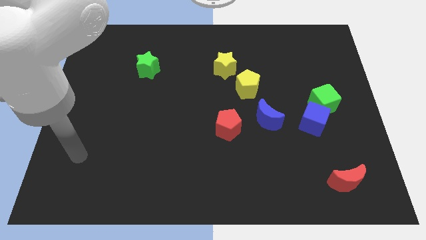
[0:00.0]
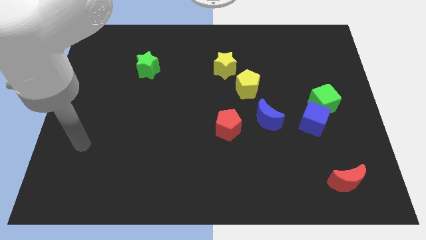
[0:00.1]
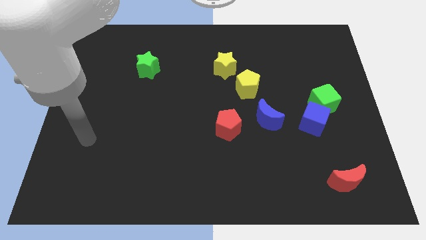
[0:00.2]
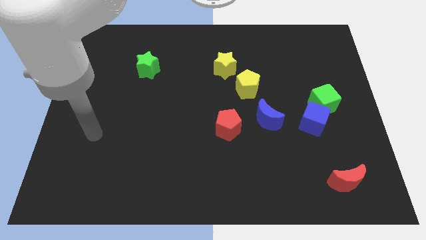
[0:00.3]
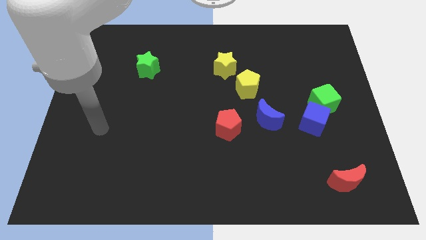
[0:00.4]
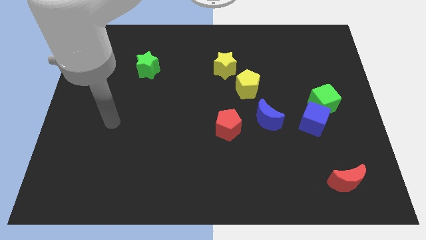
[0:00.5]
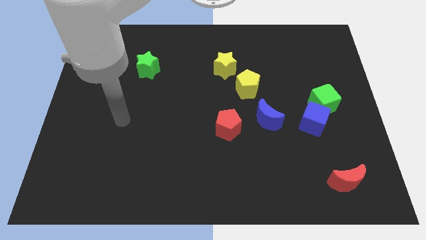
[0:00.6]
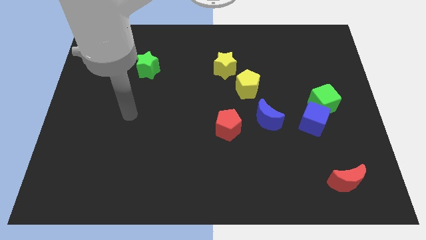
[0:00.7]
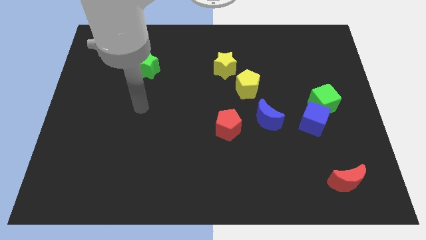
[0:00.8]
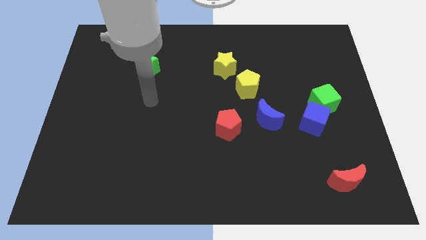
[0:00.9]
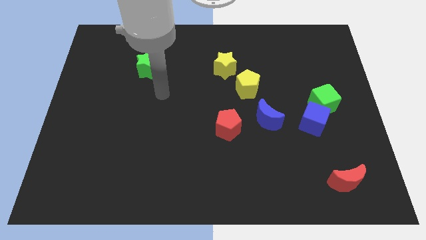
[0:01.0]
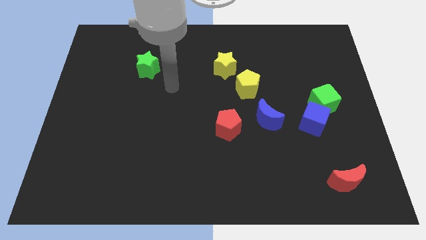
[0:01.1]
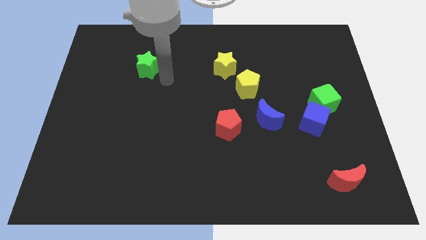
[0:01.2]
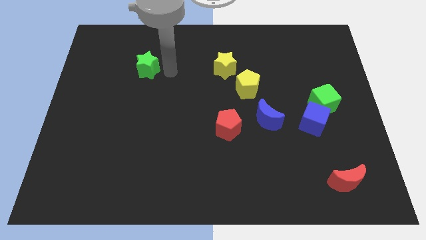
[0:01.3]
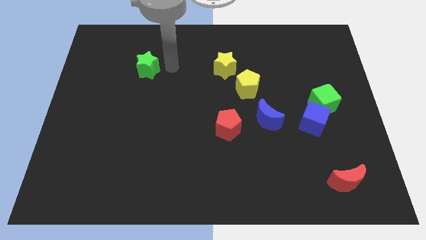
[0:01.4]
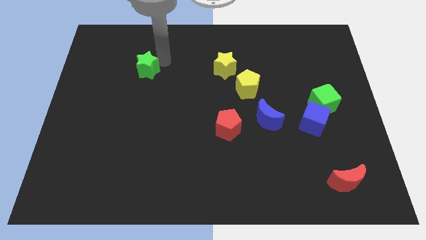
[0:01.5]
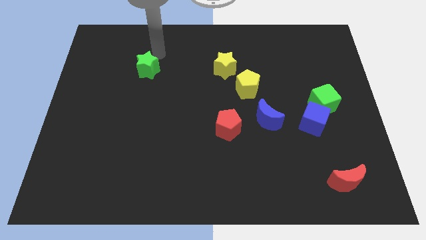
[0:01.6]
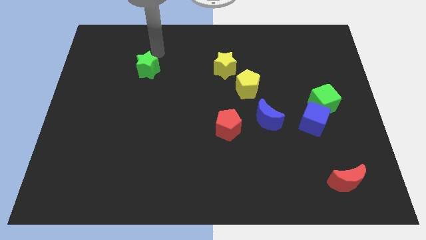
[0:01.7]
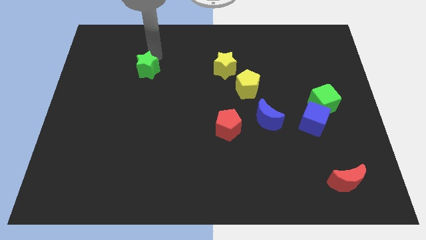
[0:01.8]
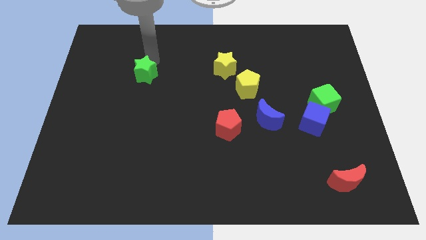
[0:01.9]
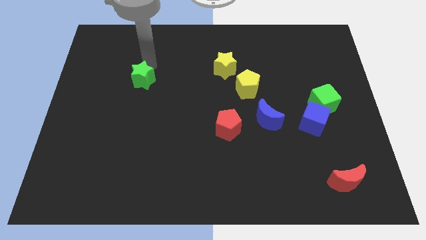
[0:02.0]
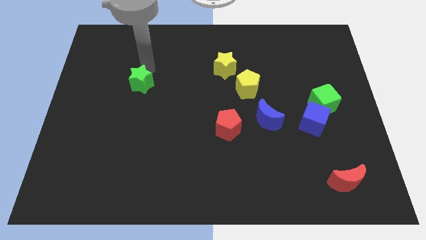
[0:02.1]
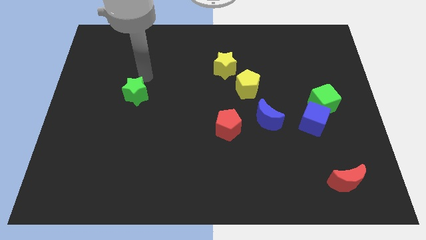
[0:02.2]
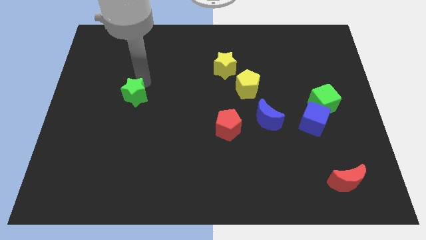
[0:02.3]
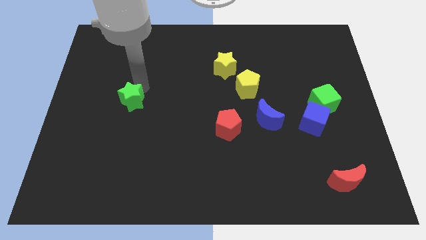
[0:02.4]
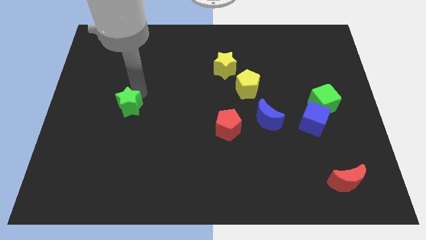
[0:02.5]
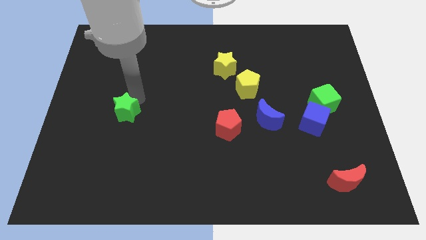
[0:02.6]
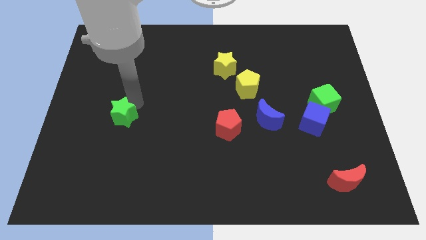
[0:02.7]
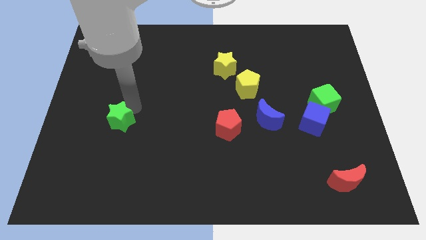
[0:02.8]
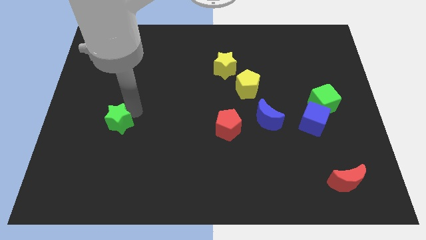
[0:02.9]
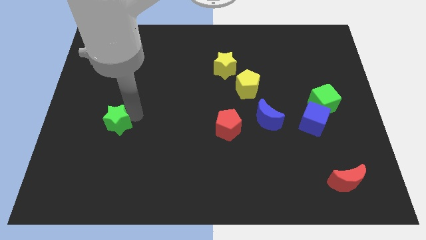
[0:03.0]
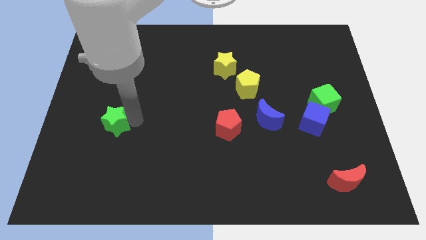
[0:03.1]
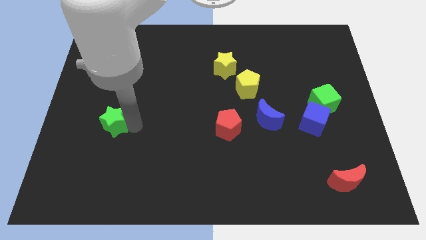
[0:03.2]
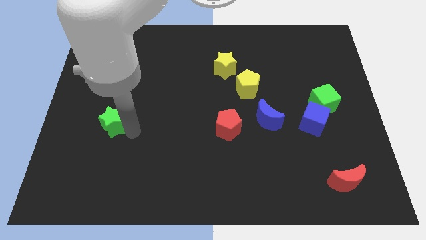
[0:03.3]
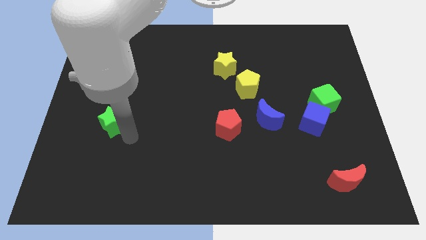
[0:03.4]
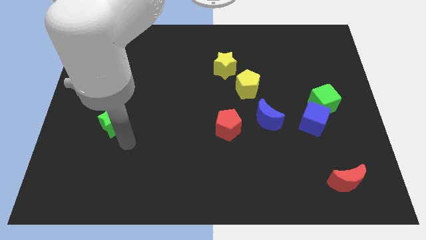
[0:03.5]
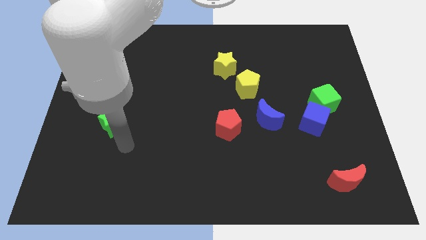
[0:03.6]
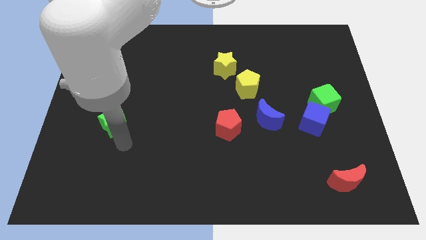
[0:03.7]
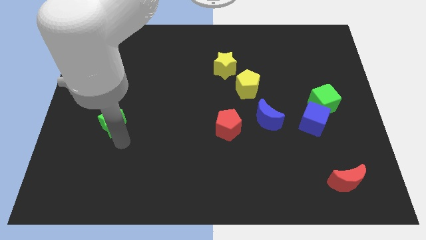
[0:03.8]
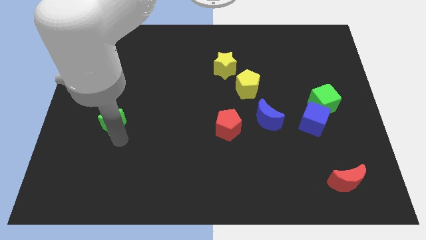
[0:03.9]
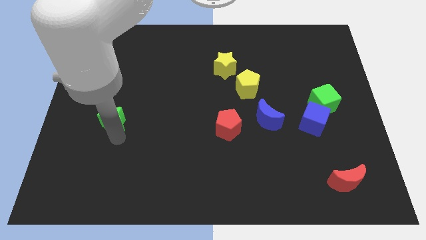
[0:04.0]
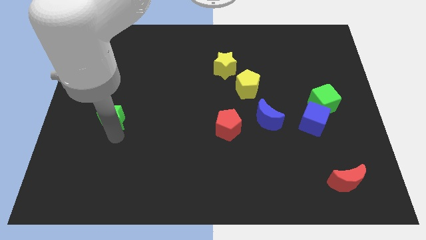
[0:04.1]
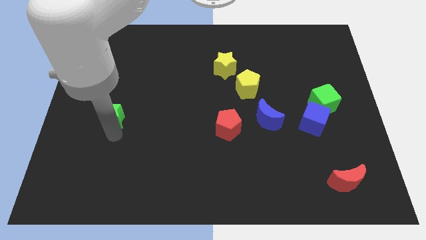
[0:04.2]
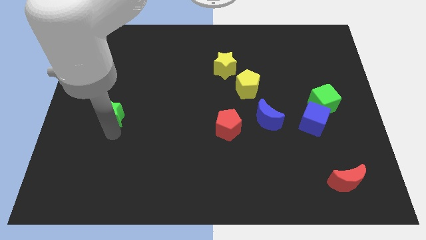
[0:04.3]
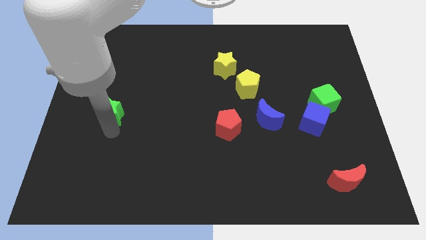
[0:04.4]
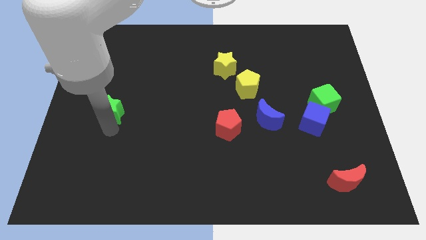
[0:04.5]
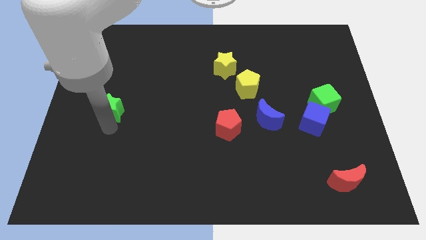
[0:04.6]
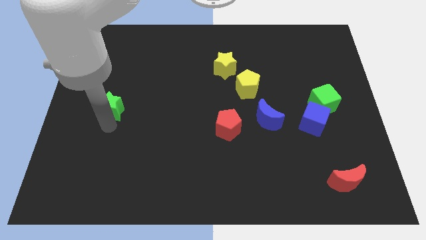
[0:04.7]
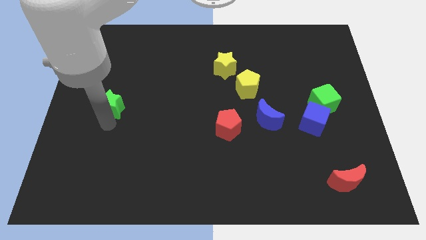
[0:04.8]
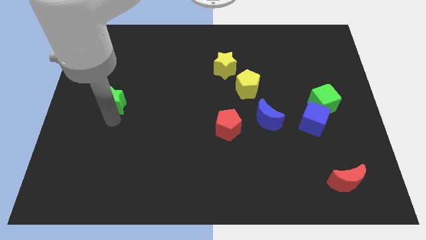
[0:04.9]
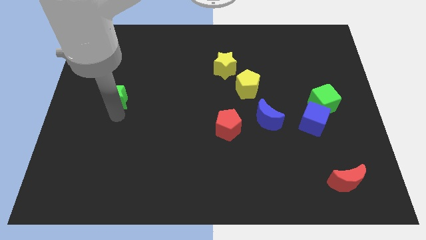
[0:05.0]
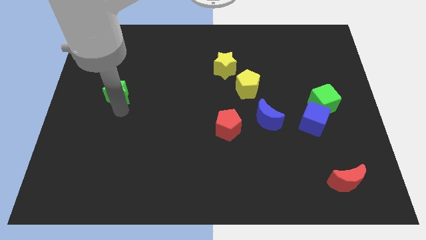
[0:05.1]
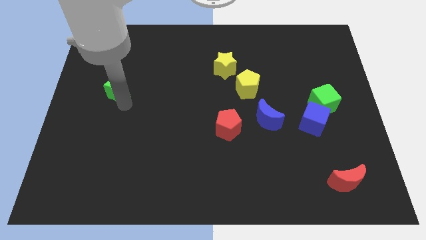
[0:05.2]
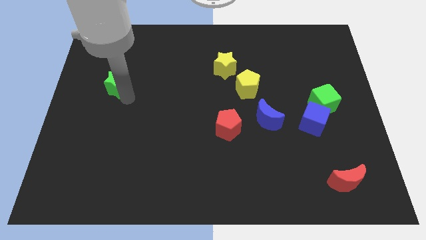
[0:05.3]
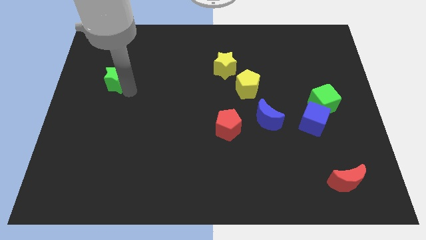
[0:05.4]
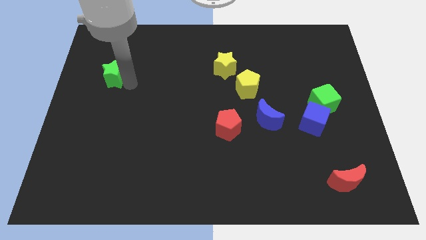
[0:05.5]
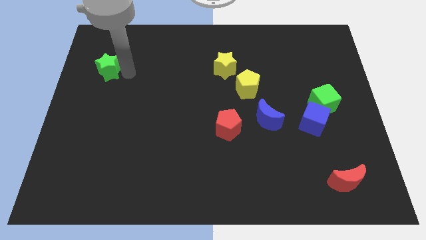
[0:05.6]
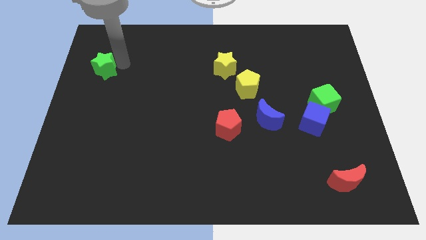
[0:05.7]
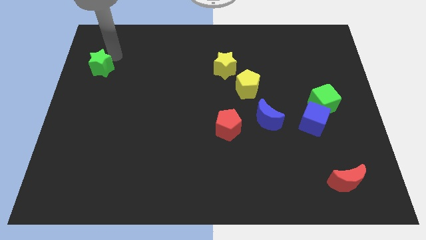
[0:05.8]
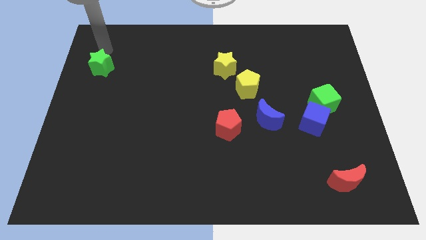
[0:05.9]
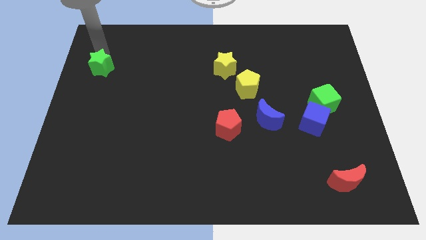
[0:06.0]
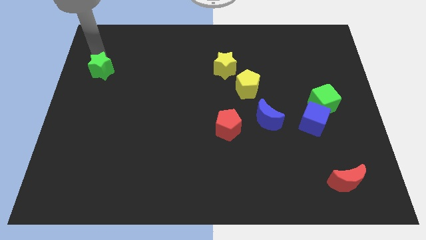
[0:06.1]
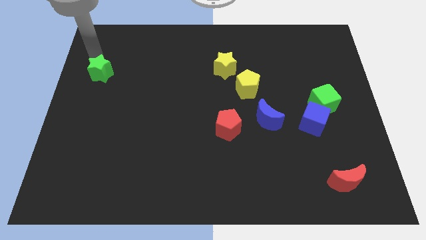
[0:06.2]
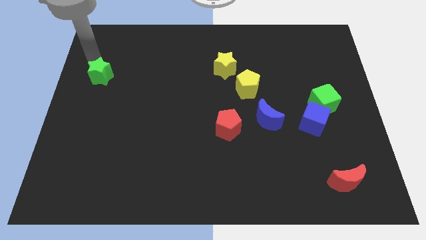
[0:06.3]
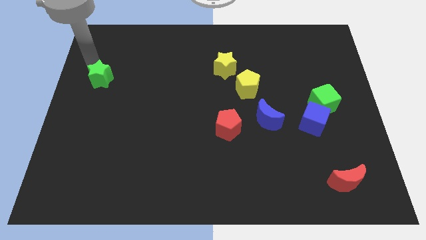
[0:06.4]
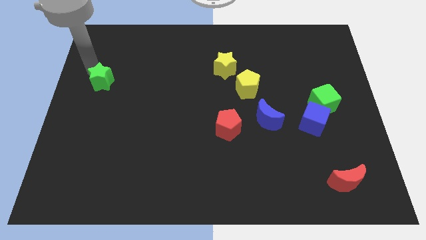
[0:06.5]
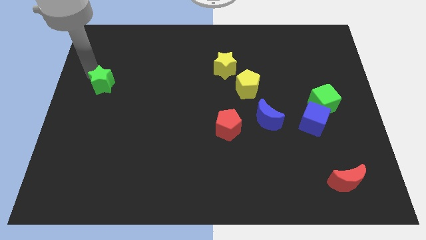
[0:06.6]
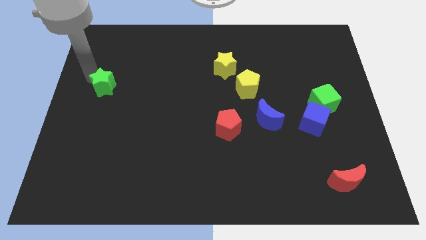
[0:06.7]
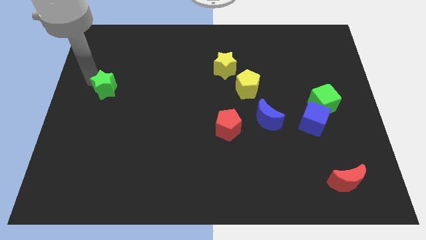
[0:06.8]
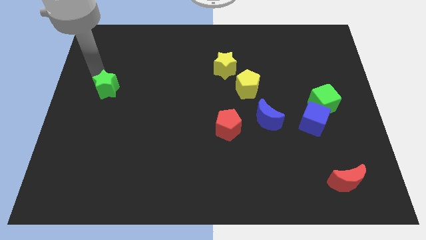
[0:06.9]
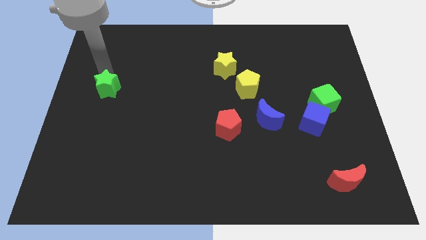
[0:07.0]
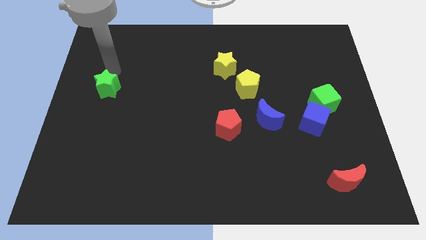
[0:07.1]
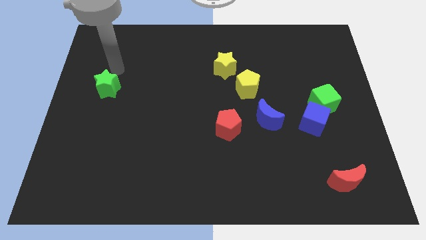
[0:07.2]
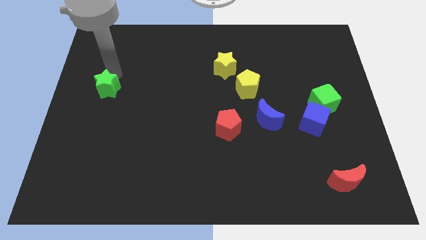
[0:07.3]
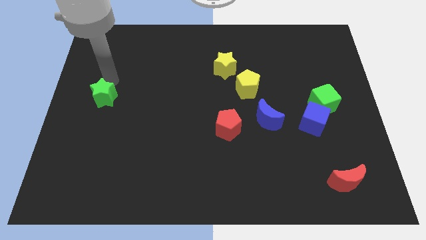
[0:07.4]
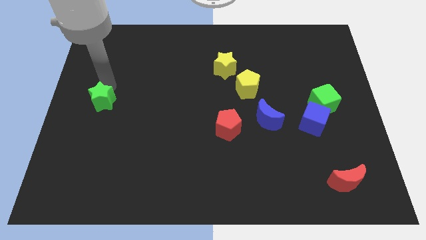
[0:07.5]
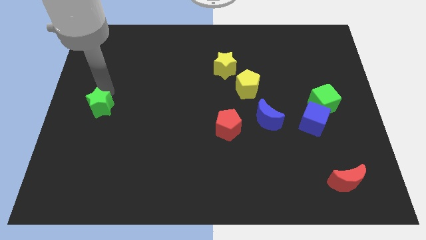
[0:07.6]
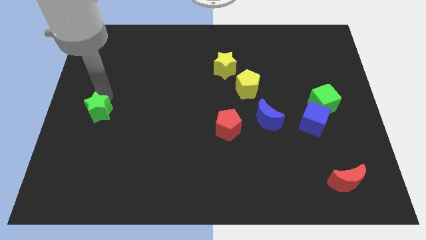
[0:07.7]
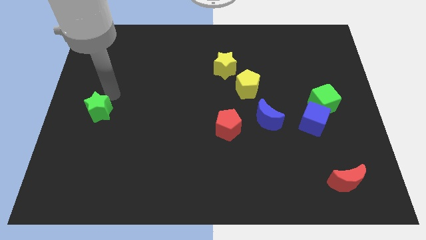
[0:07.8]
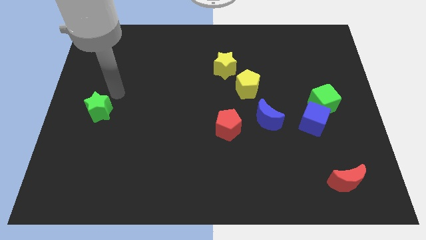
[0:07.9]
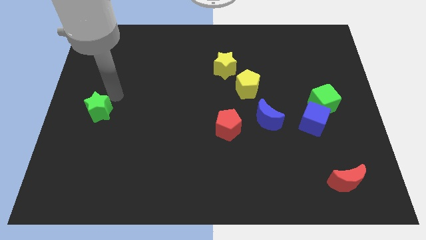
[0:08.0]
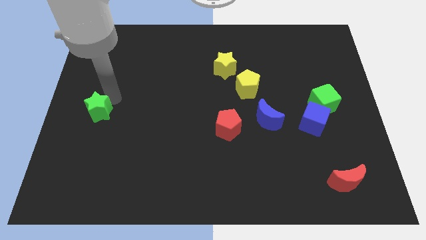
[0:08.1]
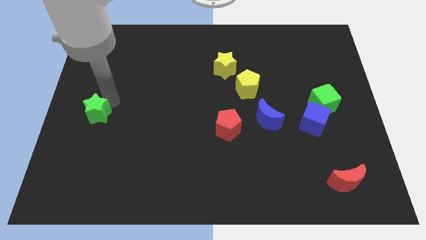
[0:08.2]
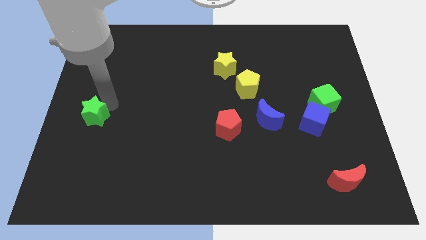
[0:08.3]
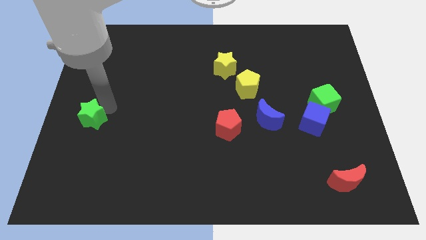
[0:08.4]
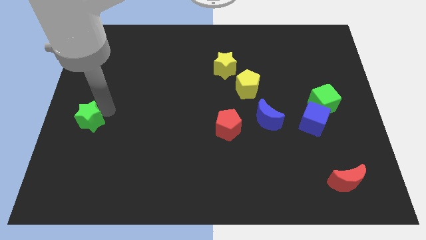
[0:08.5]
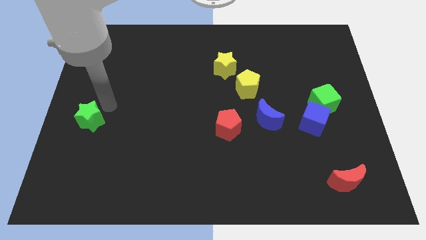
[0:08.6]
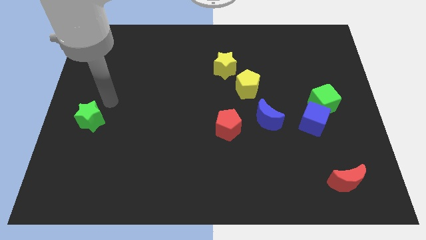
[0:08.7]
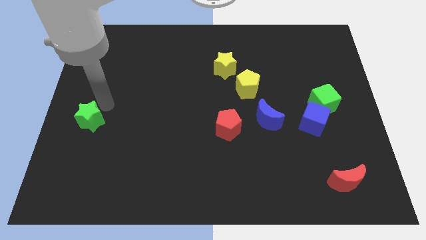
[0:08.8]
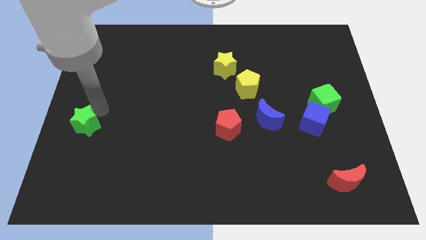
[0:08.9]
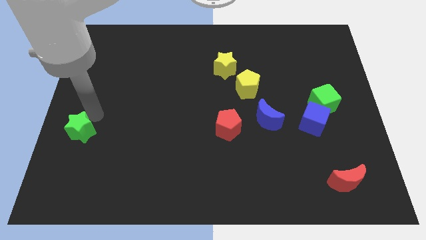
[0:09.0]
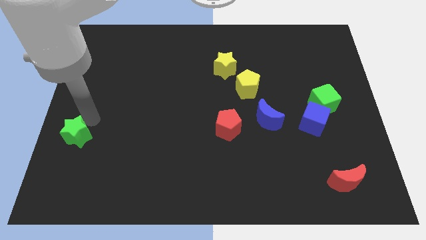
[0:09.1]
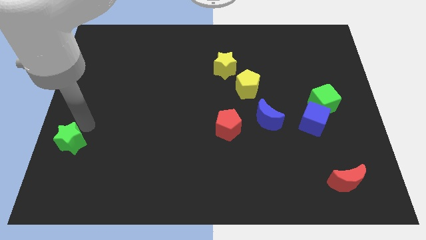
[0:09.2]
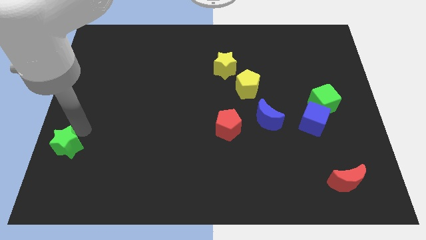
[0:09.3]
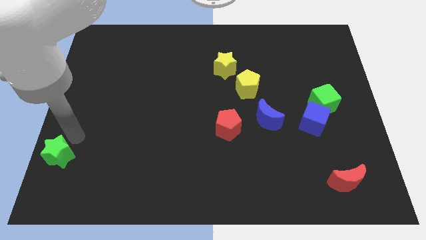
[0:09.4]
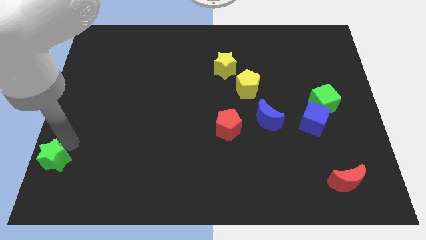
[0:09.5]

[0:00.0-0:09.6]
move the green star to the lower left corner
